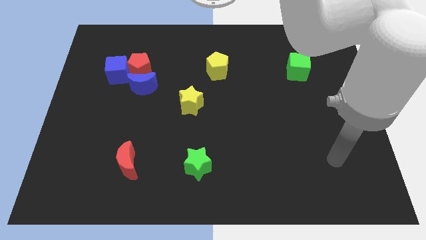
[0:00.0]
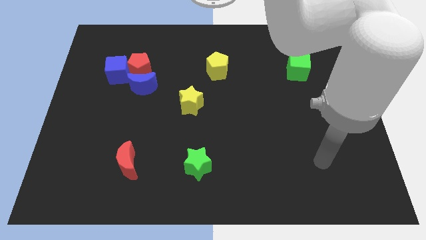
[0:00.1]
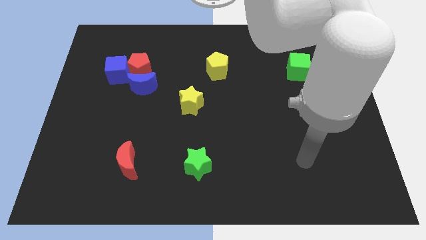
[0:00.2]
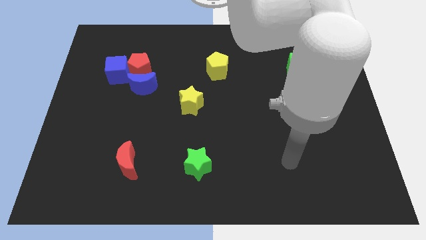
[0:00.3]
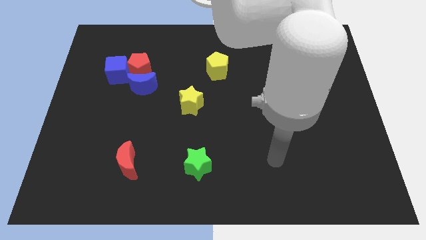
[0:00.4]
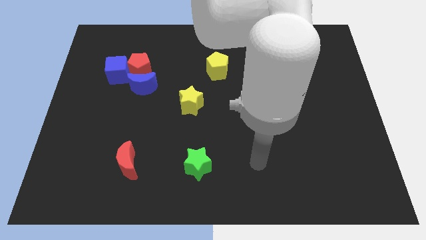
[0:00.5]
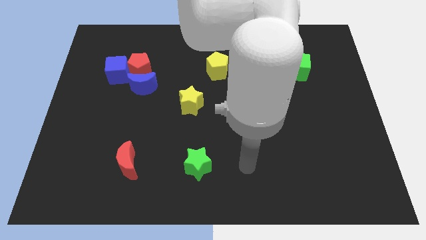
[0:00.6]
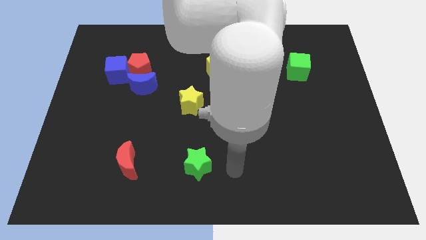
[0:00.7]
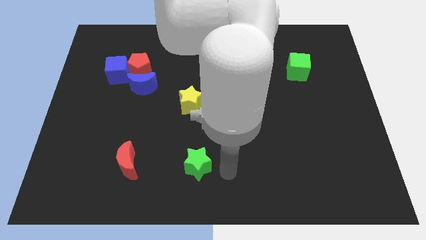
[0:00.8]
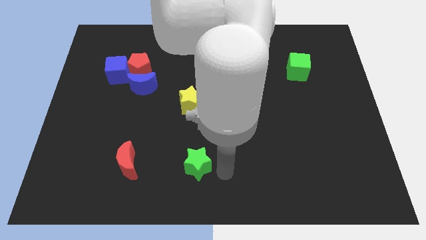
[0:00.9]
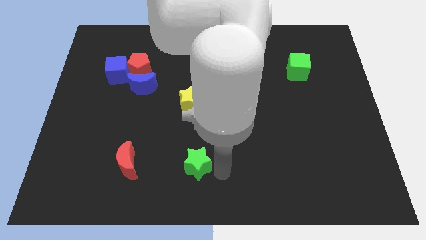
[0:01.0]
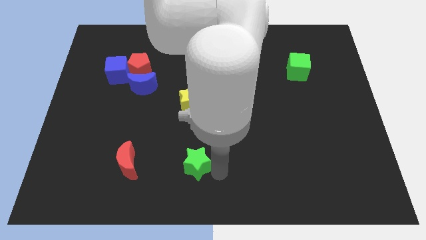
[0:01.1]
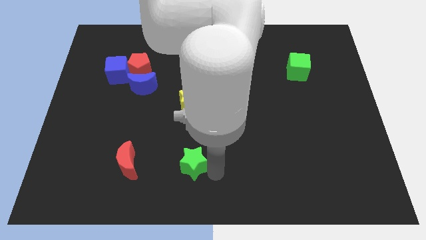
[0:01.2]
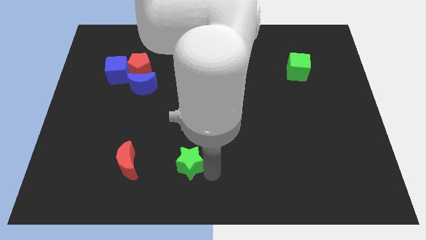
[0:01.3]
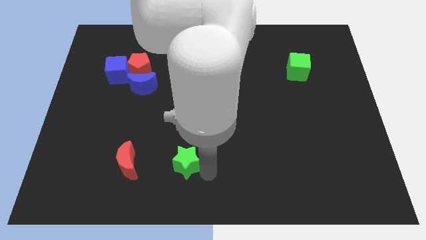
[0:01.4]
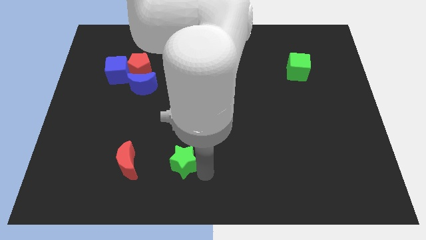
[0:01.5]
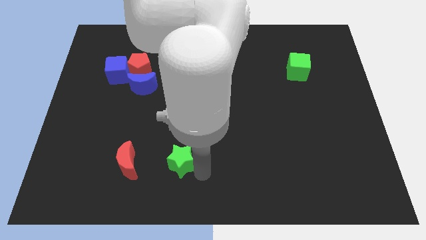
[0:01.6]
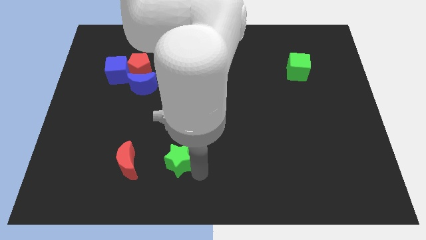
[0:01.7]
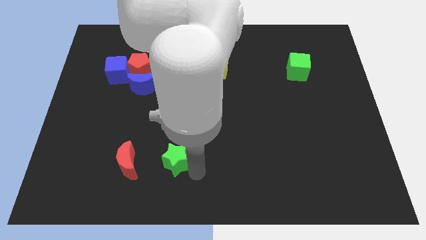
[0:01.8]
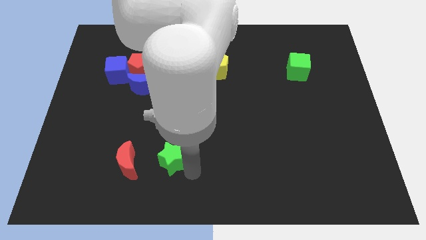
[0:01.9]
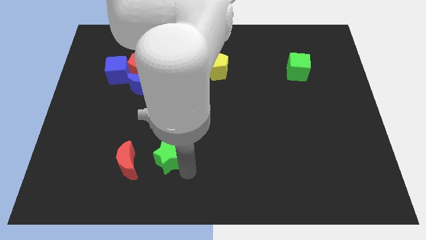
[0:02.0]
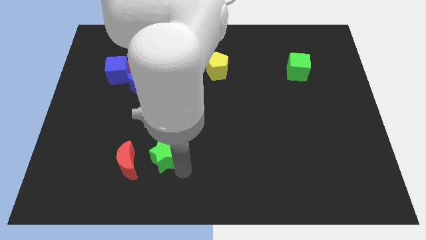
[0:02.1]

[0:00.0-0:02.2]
push the green star a bit to the left

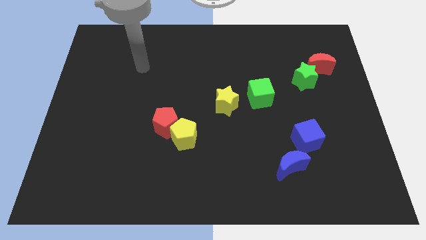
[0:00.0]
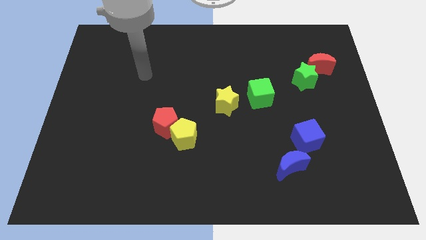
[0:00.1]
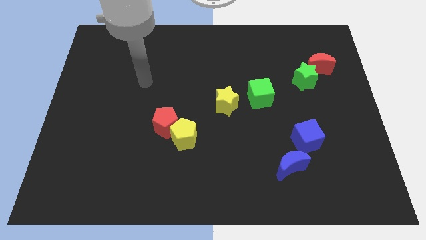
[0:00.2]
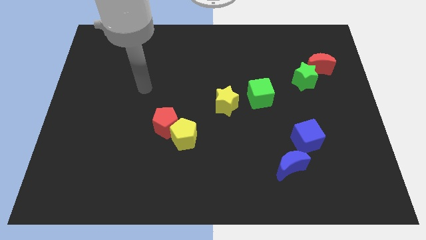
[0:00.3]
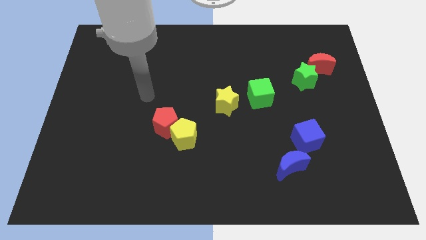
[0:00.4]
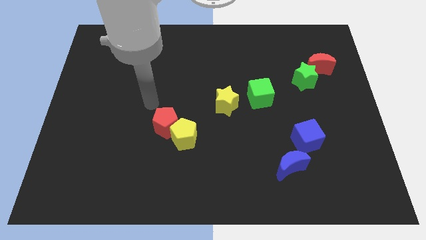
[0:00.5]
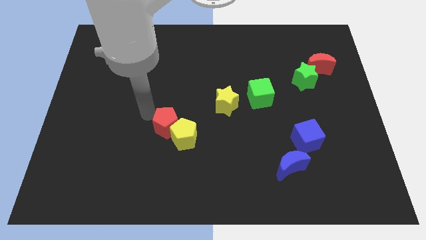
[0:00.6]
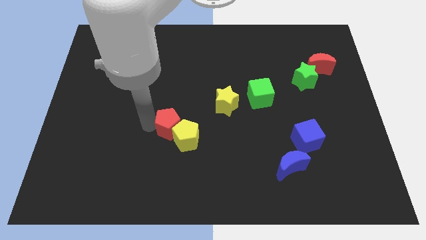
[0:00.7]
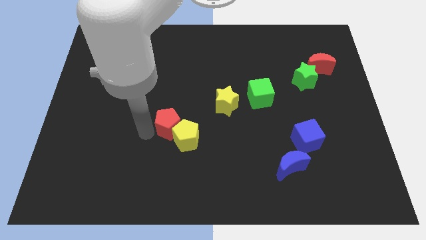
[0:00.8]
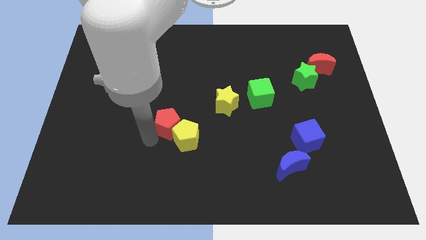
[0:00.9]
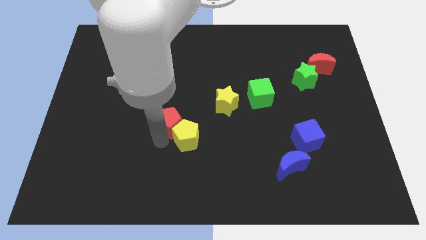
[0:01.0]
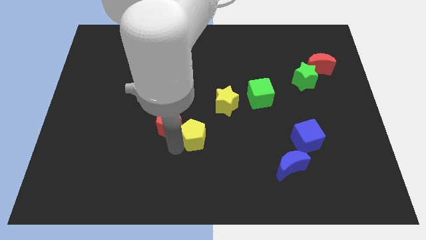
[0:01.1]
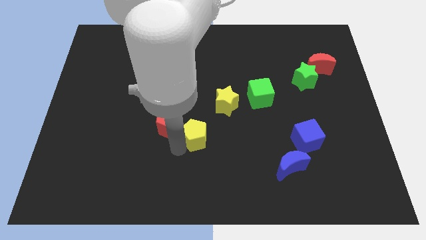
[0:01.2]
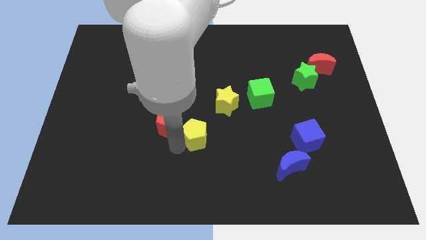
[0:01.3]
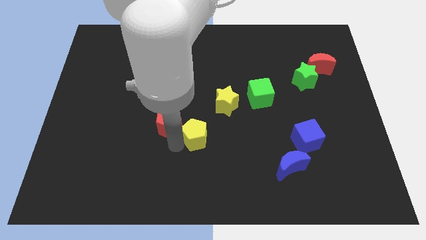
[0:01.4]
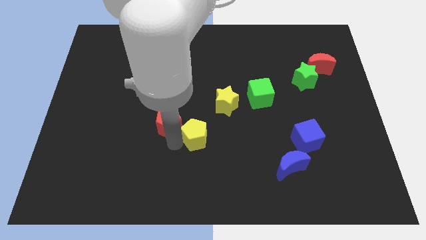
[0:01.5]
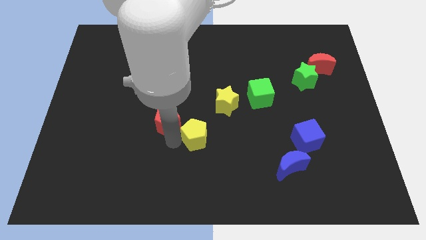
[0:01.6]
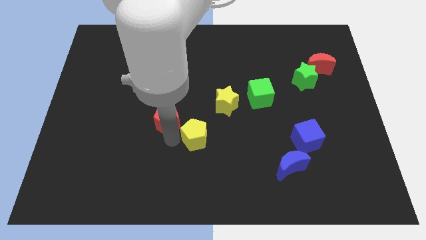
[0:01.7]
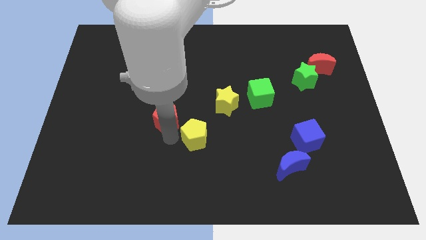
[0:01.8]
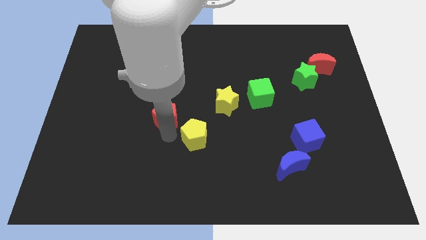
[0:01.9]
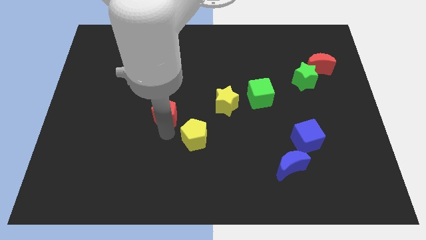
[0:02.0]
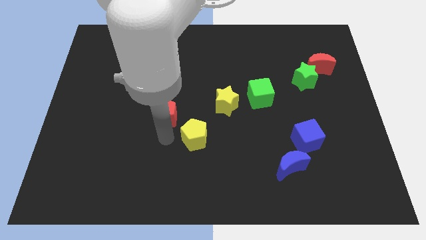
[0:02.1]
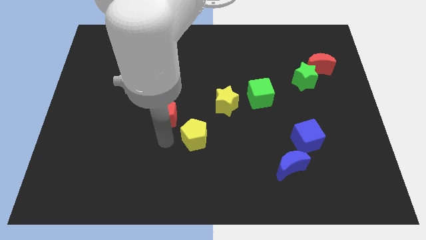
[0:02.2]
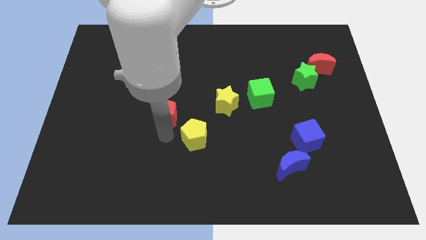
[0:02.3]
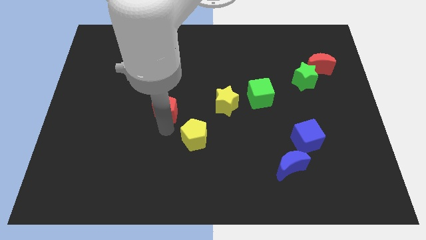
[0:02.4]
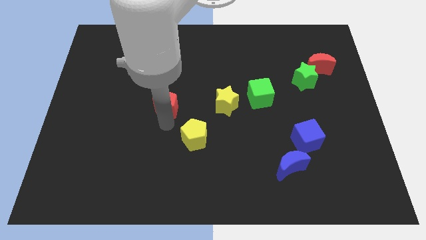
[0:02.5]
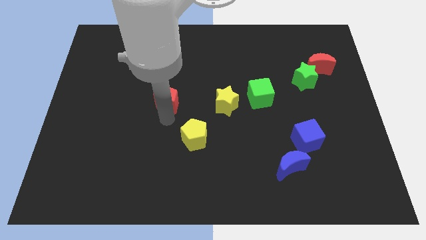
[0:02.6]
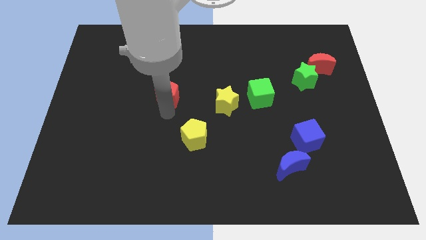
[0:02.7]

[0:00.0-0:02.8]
slide the red pentagon a little bit upwards

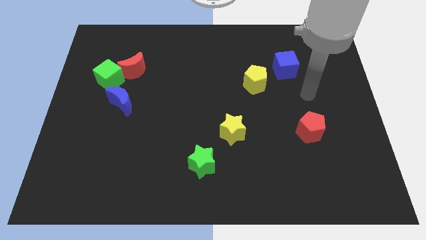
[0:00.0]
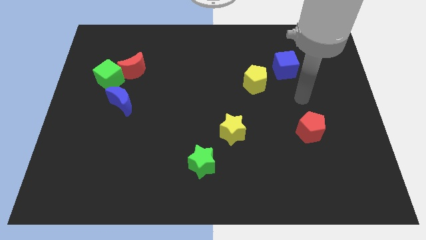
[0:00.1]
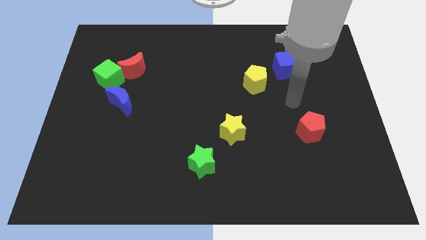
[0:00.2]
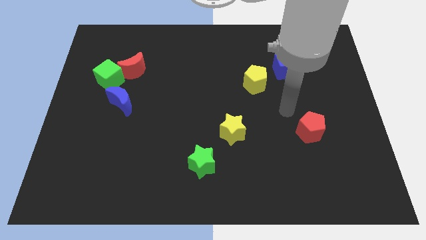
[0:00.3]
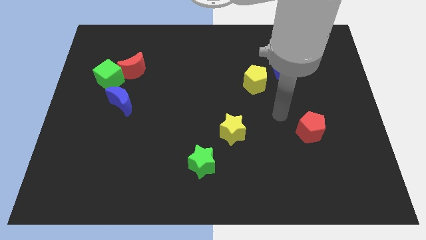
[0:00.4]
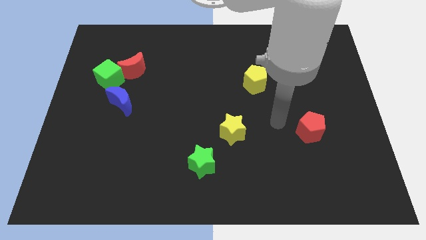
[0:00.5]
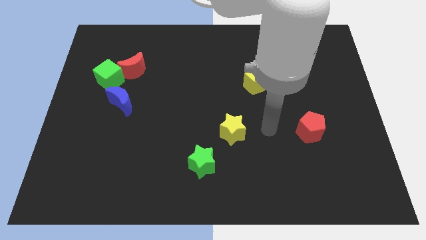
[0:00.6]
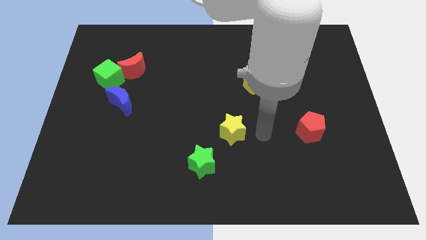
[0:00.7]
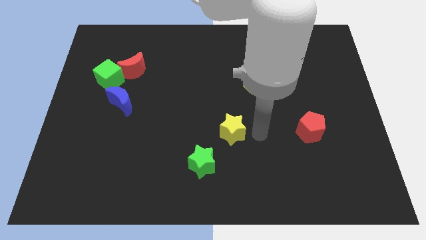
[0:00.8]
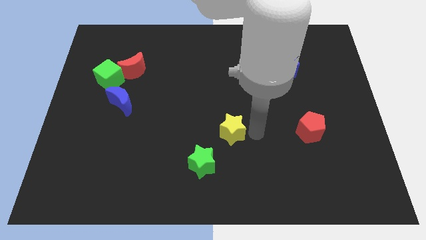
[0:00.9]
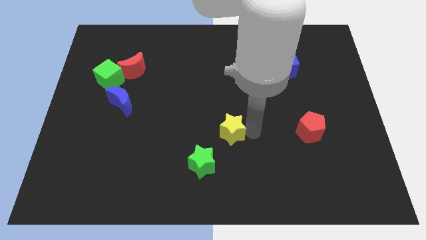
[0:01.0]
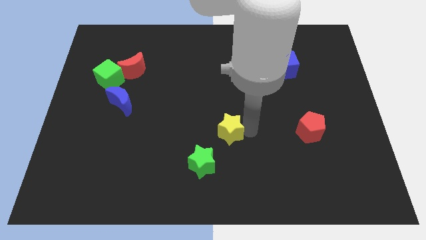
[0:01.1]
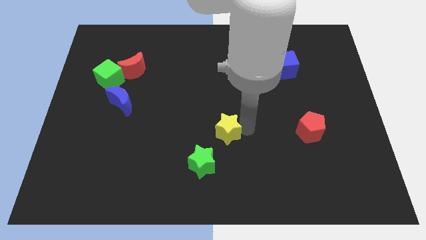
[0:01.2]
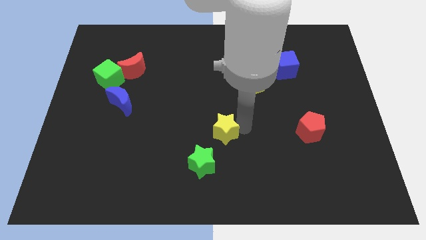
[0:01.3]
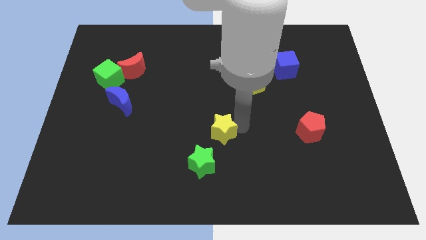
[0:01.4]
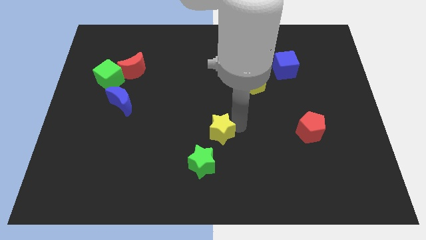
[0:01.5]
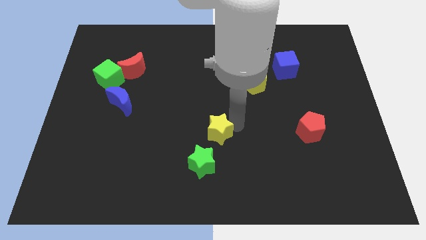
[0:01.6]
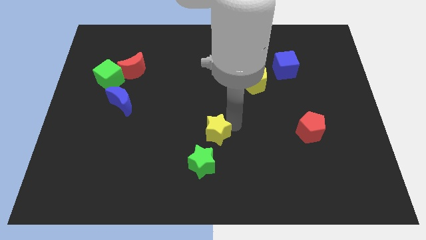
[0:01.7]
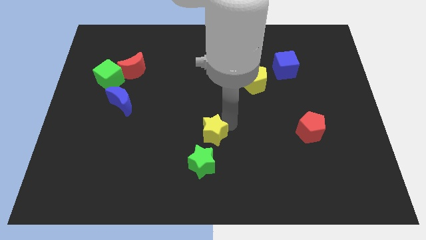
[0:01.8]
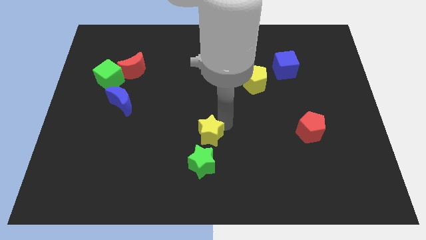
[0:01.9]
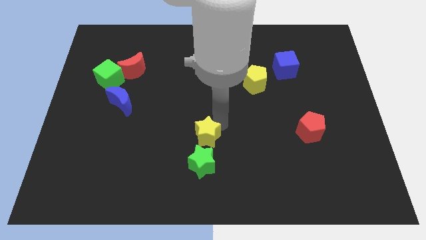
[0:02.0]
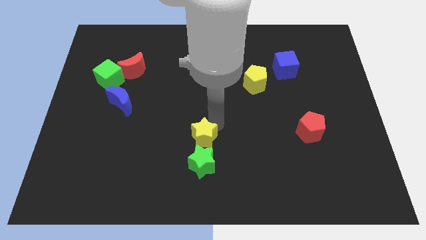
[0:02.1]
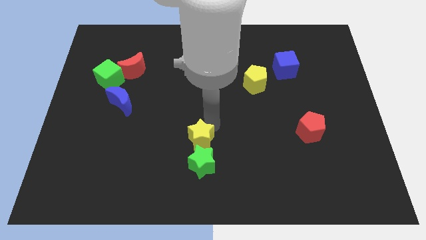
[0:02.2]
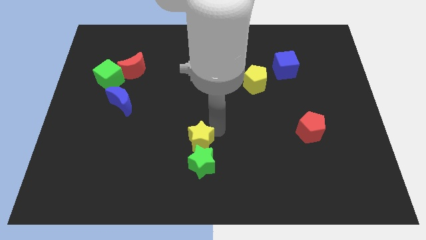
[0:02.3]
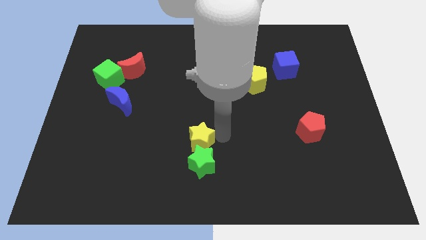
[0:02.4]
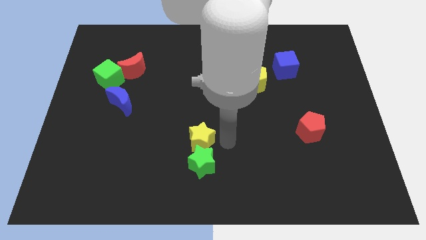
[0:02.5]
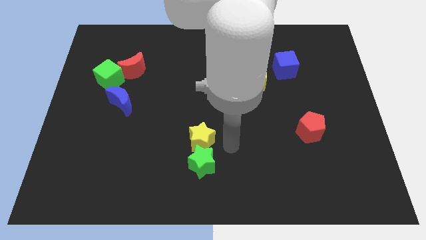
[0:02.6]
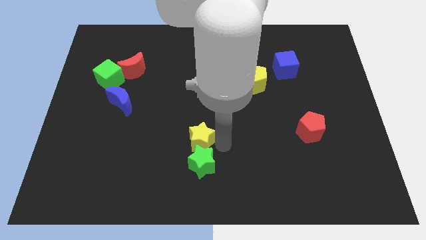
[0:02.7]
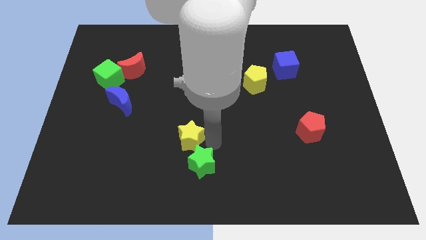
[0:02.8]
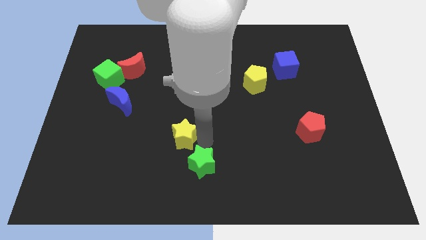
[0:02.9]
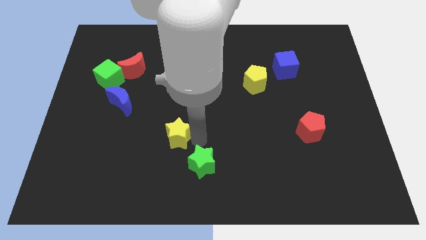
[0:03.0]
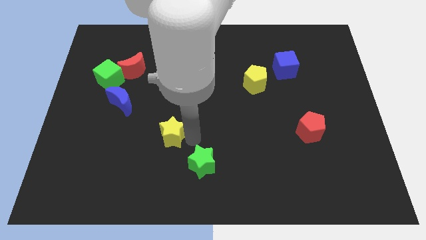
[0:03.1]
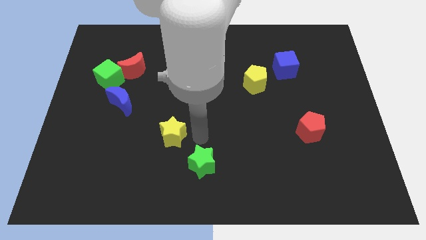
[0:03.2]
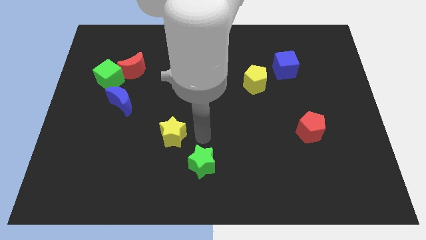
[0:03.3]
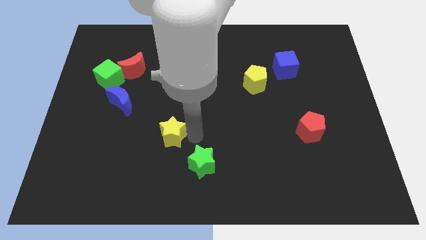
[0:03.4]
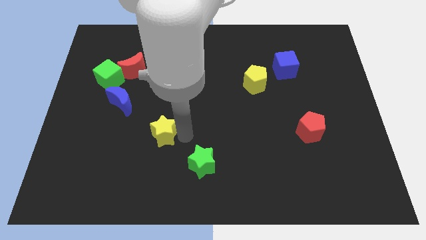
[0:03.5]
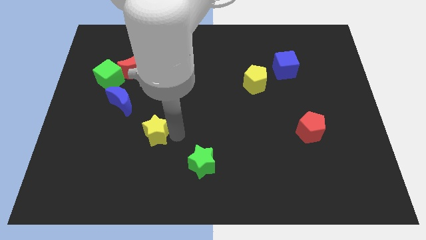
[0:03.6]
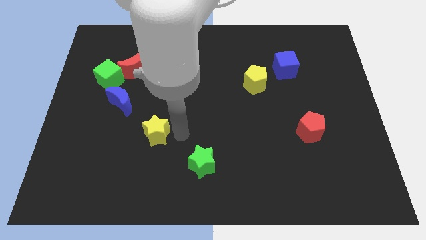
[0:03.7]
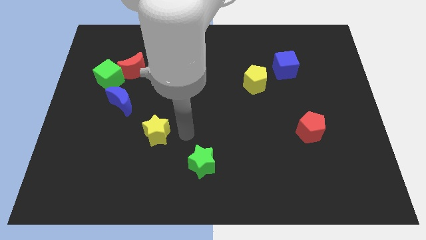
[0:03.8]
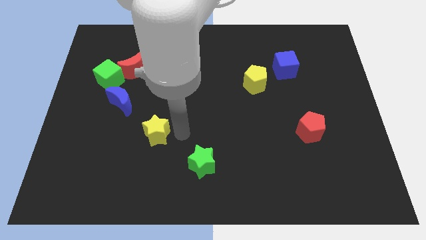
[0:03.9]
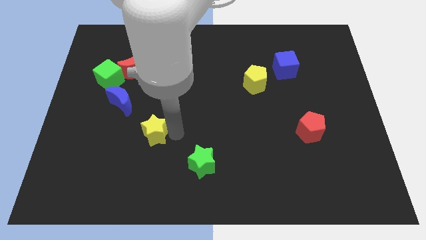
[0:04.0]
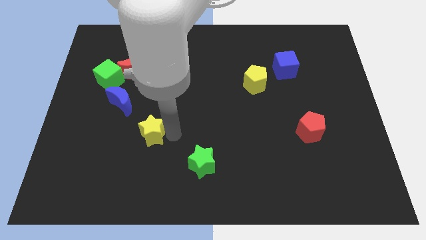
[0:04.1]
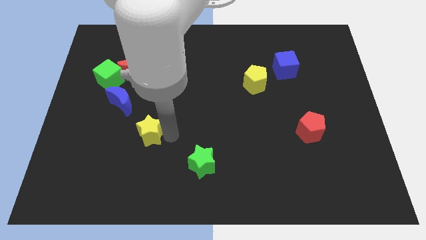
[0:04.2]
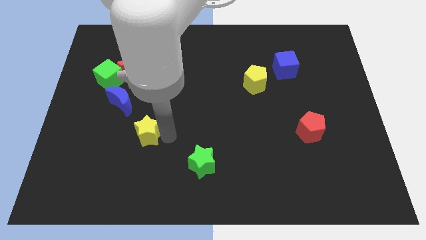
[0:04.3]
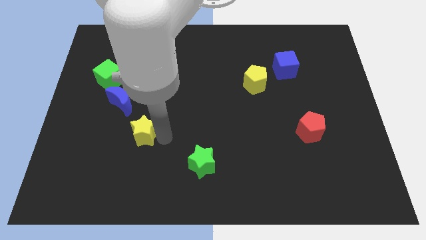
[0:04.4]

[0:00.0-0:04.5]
move the yellow star to the left
